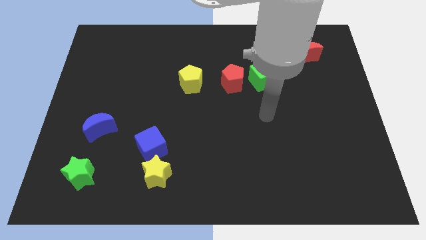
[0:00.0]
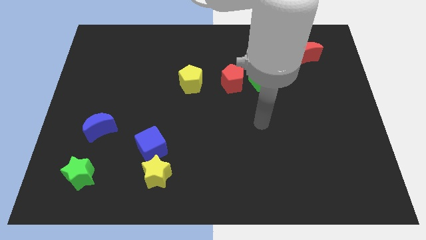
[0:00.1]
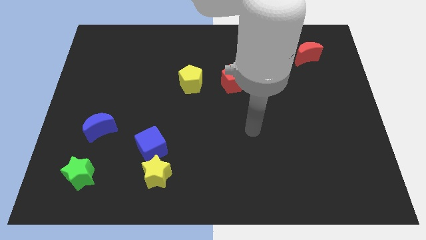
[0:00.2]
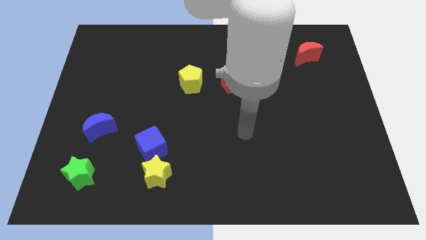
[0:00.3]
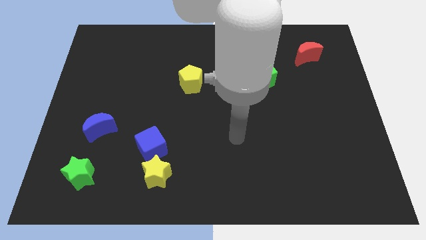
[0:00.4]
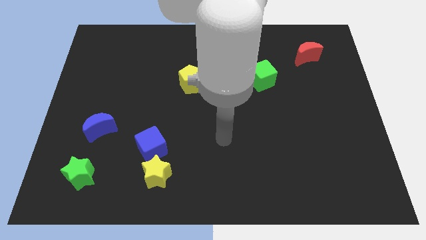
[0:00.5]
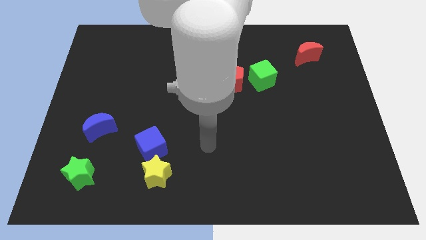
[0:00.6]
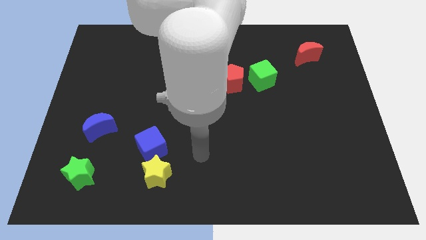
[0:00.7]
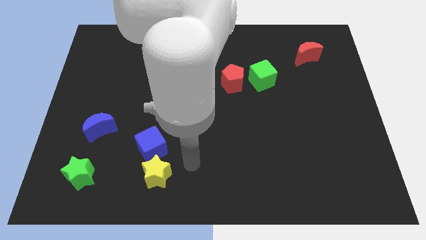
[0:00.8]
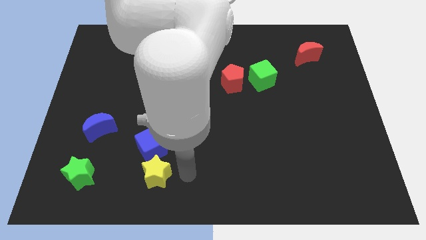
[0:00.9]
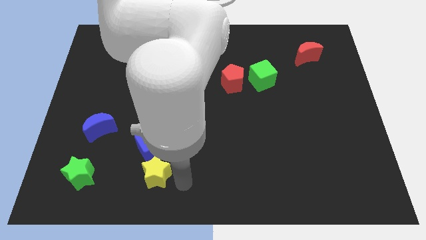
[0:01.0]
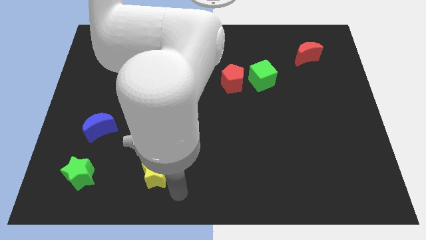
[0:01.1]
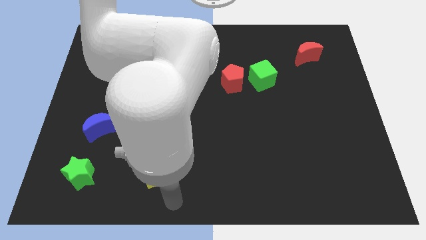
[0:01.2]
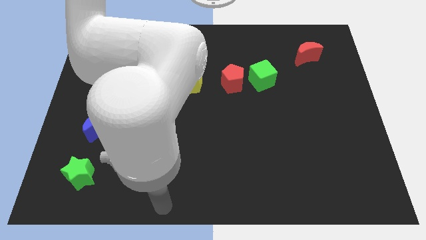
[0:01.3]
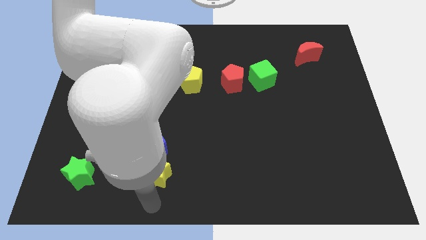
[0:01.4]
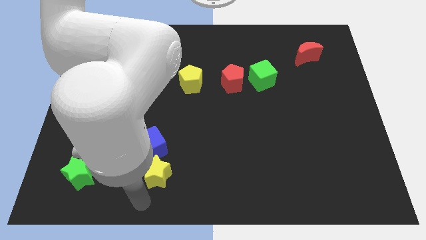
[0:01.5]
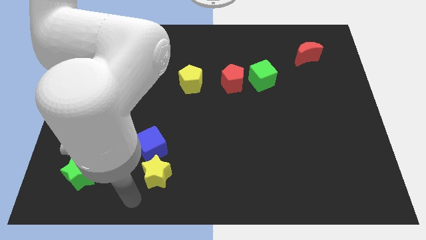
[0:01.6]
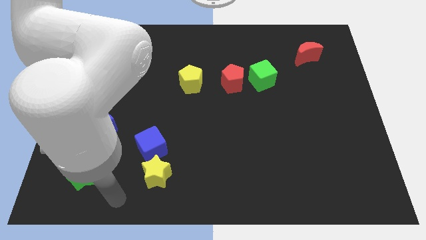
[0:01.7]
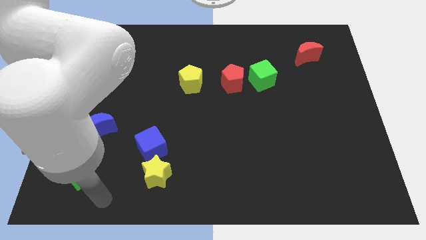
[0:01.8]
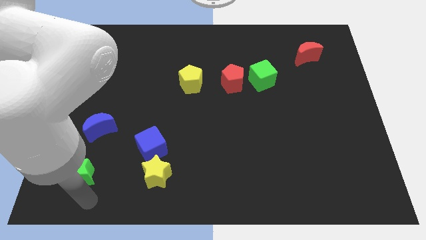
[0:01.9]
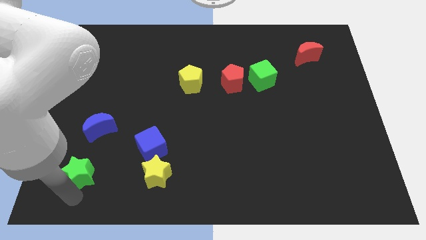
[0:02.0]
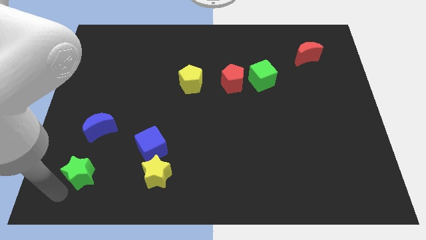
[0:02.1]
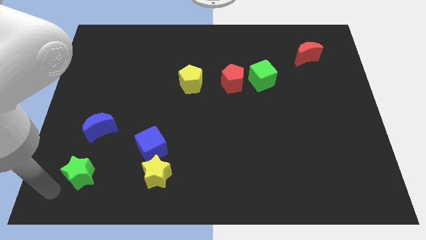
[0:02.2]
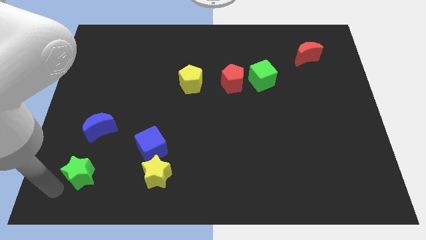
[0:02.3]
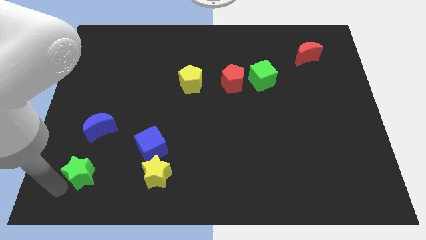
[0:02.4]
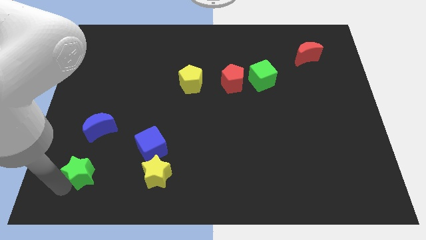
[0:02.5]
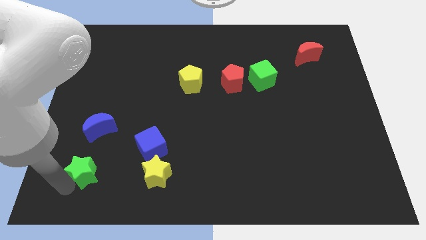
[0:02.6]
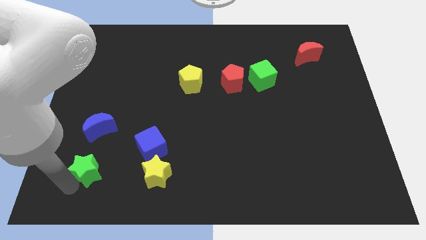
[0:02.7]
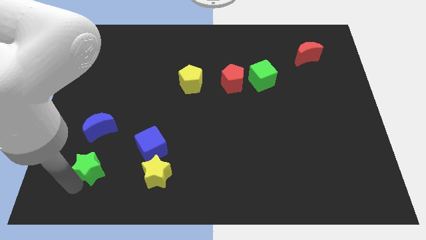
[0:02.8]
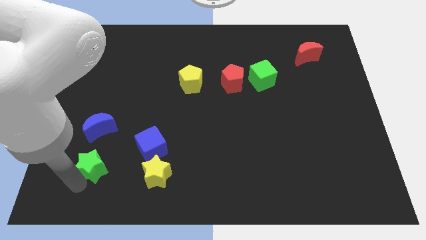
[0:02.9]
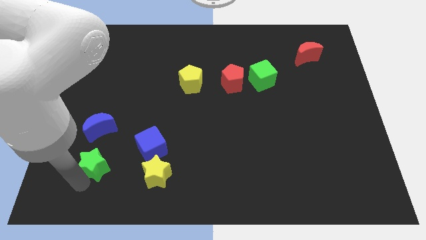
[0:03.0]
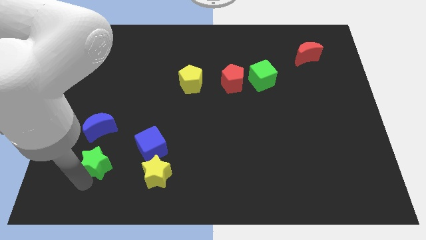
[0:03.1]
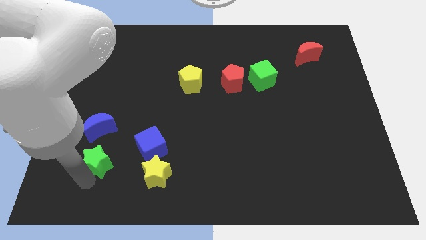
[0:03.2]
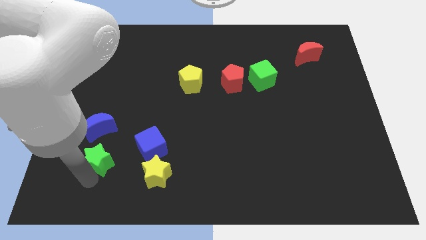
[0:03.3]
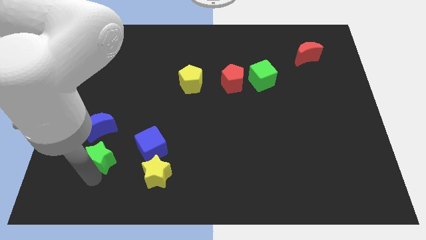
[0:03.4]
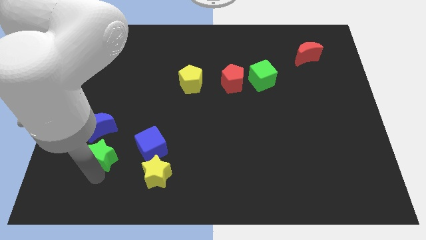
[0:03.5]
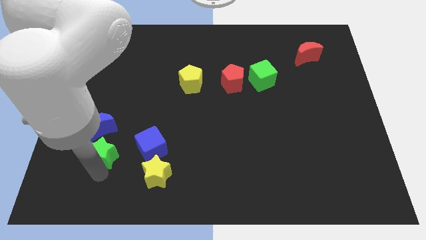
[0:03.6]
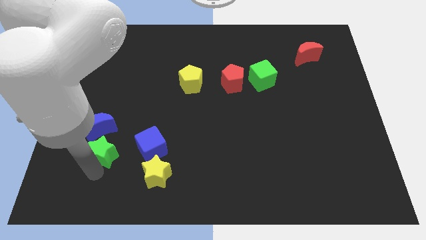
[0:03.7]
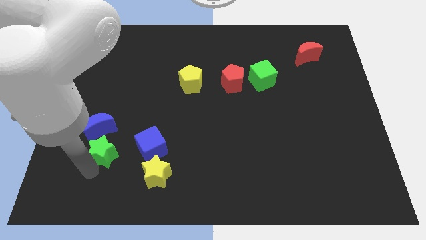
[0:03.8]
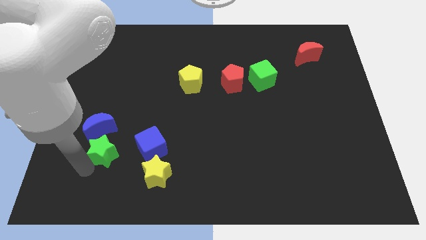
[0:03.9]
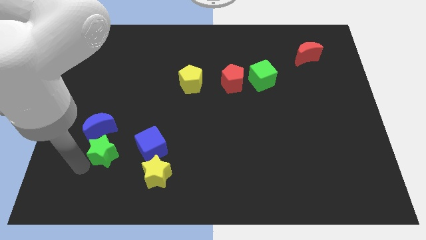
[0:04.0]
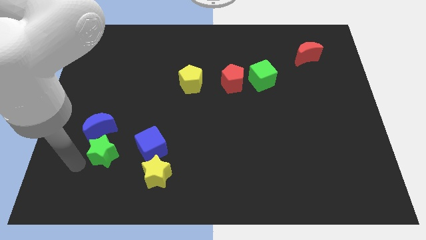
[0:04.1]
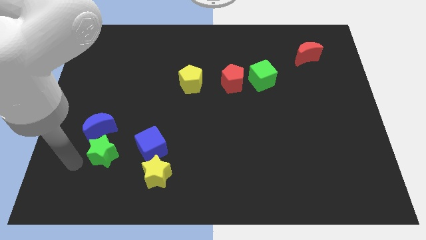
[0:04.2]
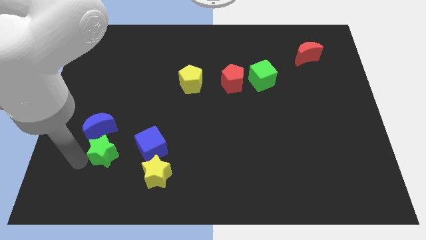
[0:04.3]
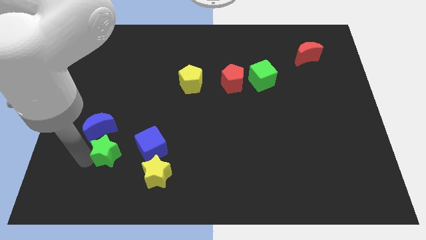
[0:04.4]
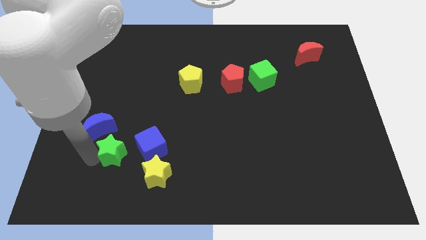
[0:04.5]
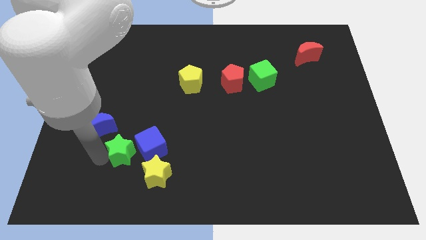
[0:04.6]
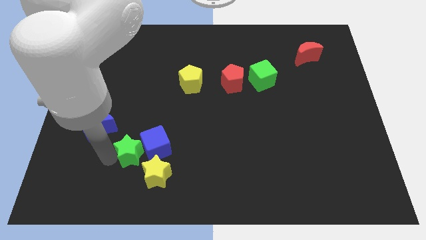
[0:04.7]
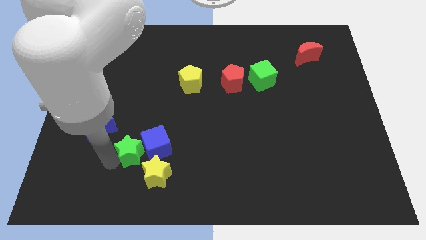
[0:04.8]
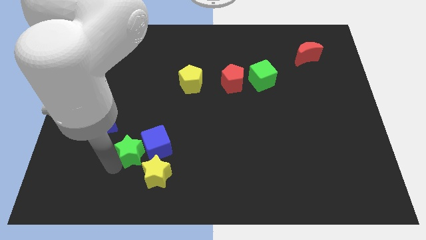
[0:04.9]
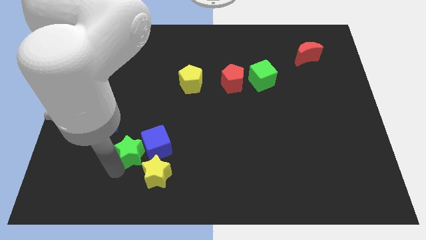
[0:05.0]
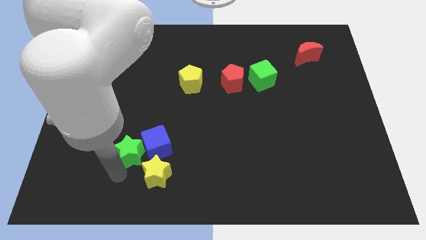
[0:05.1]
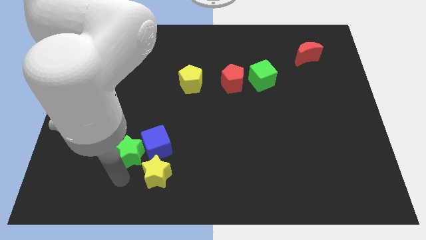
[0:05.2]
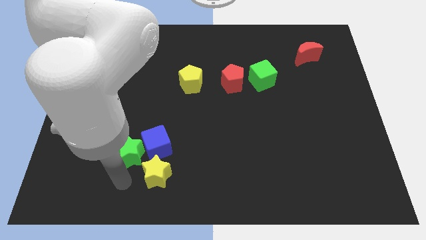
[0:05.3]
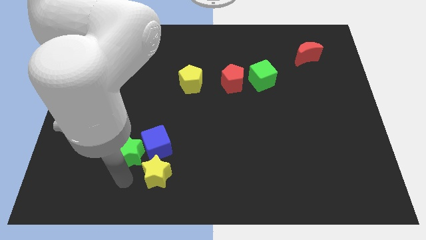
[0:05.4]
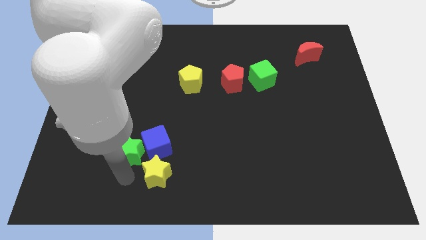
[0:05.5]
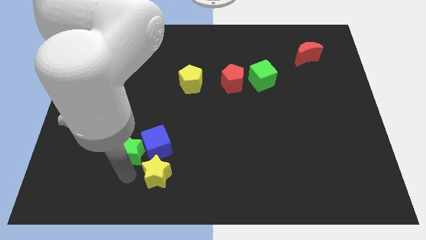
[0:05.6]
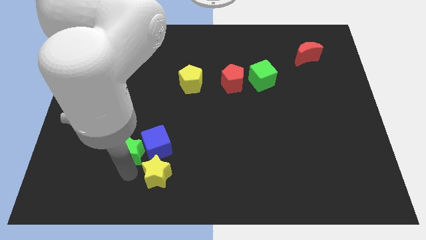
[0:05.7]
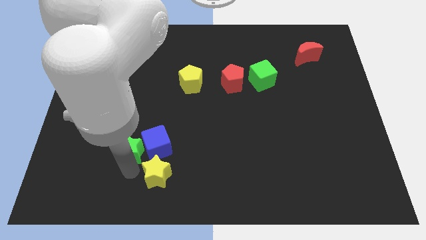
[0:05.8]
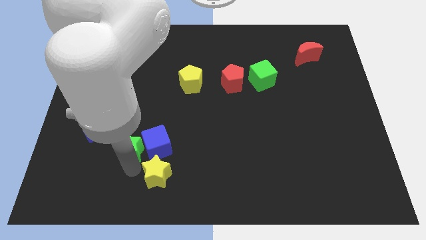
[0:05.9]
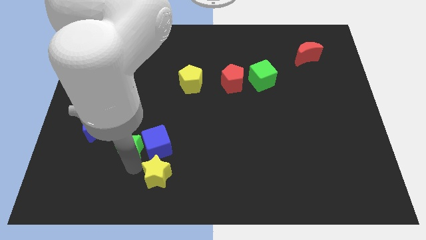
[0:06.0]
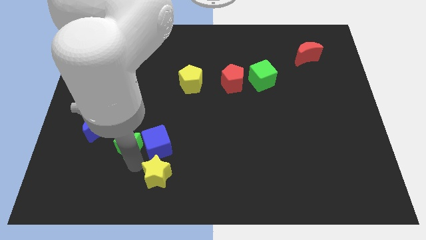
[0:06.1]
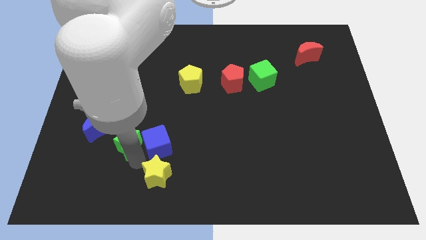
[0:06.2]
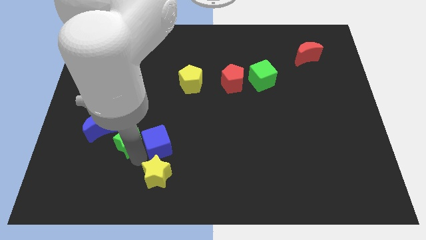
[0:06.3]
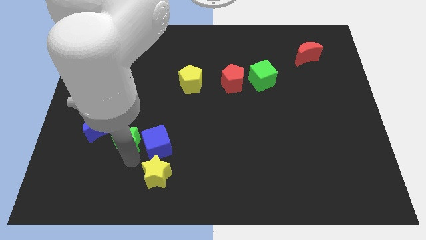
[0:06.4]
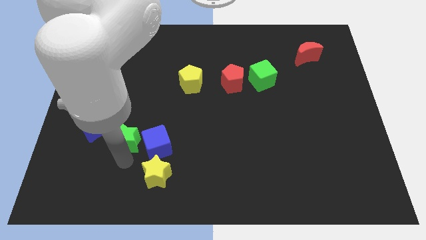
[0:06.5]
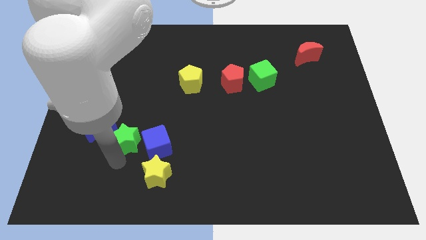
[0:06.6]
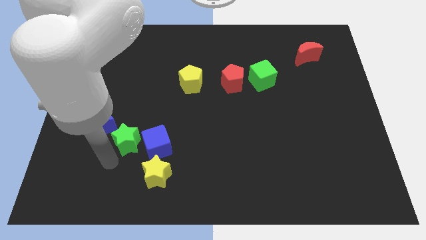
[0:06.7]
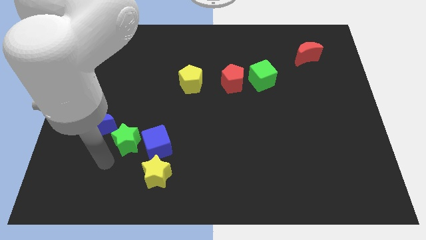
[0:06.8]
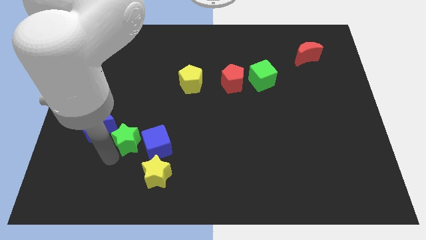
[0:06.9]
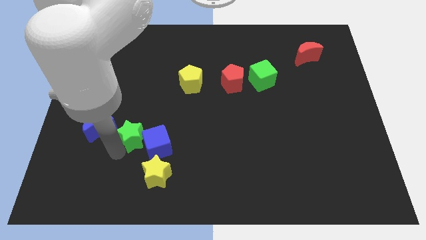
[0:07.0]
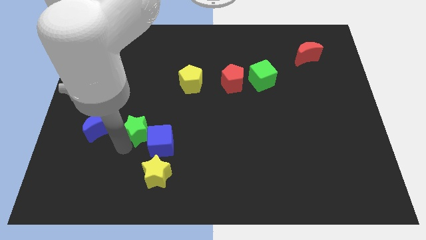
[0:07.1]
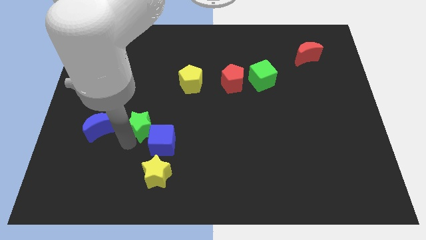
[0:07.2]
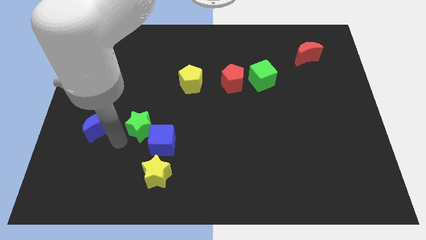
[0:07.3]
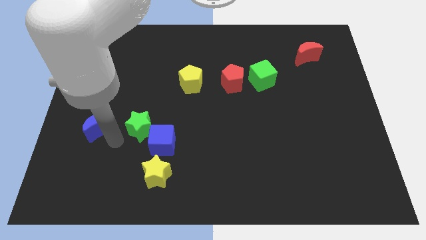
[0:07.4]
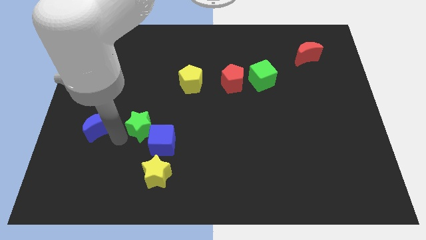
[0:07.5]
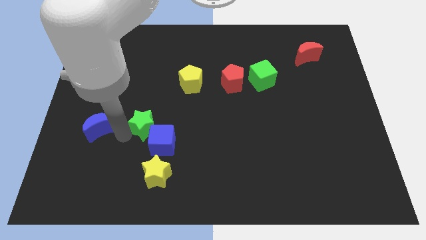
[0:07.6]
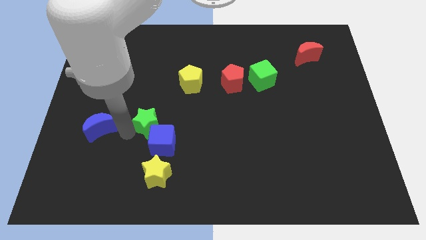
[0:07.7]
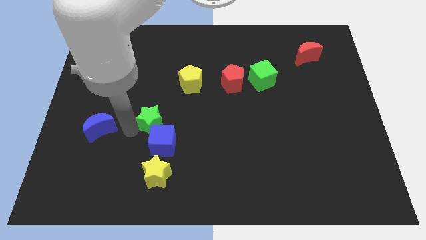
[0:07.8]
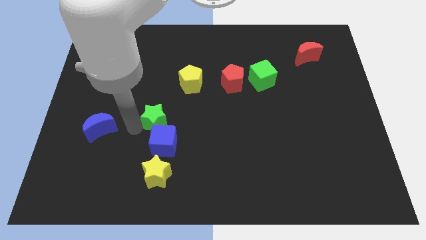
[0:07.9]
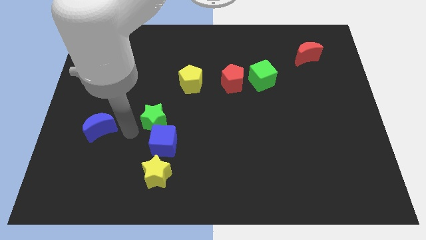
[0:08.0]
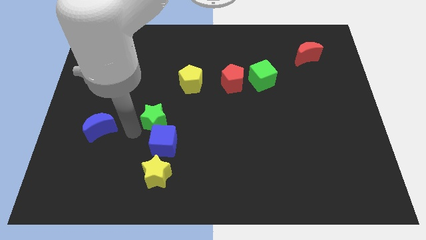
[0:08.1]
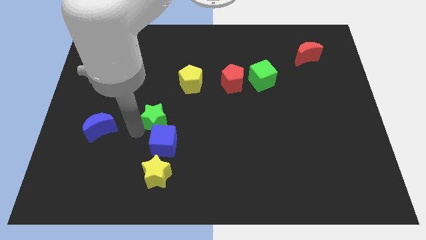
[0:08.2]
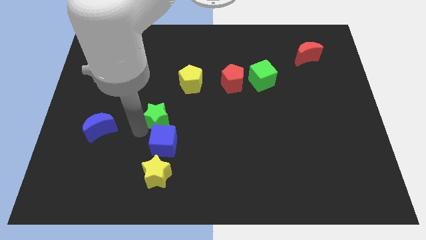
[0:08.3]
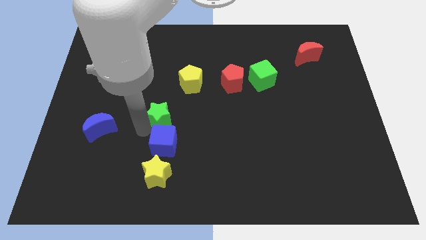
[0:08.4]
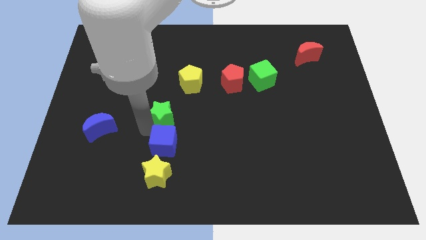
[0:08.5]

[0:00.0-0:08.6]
slide the green star to the middle of the board
